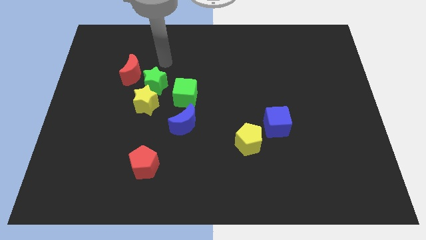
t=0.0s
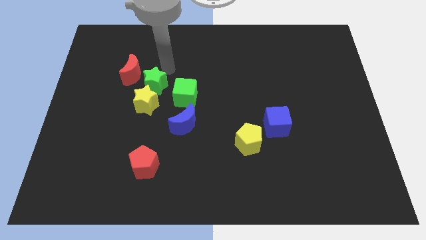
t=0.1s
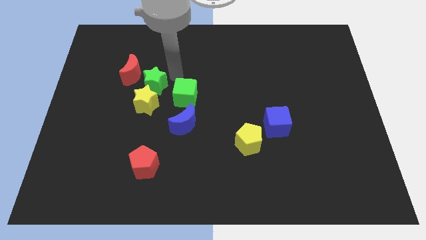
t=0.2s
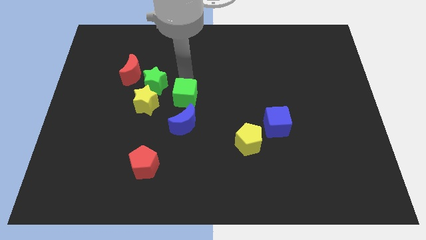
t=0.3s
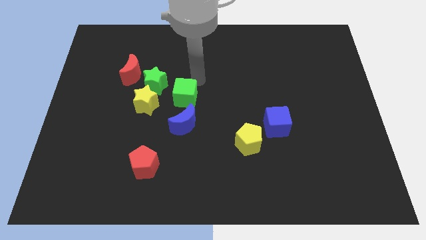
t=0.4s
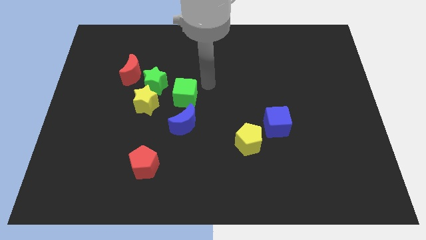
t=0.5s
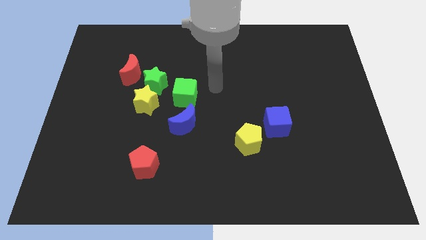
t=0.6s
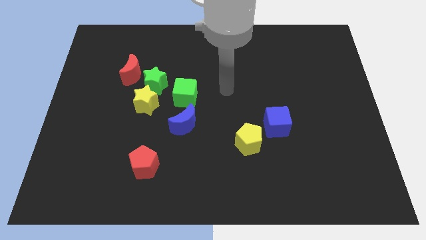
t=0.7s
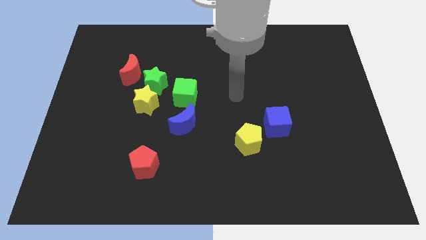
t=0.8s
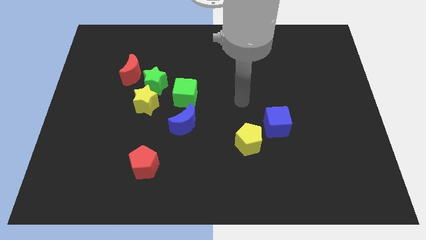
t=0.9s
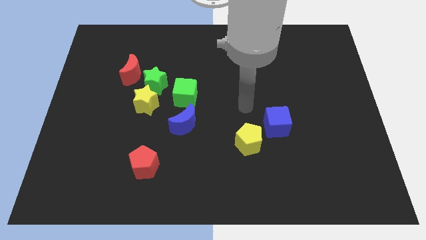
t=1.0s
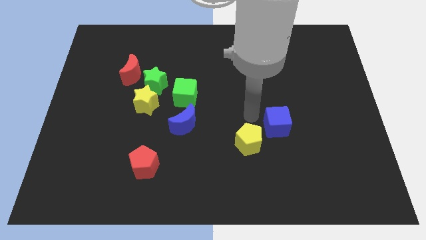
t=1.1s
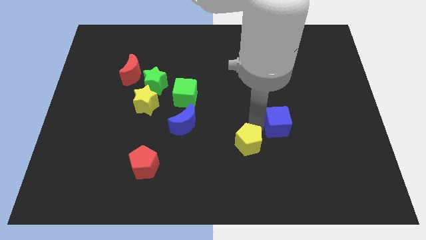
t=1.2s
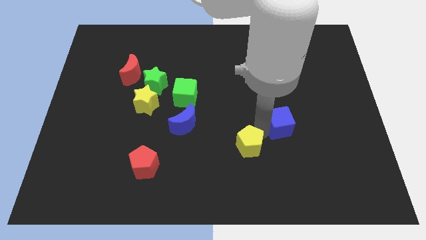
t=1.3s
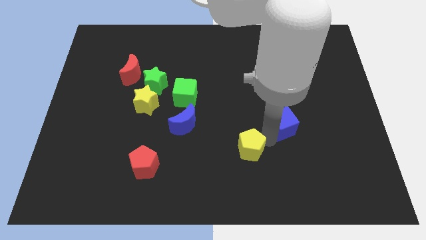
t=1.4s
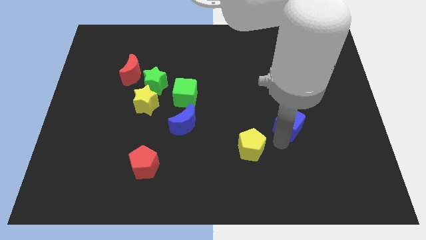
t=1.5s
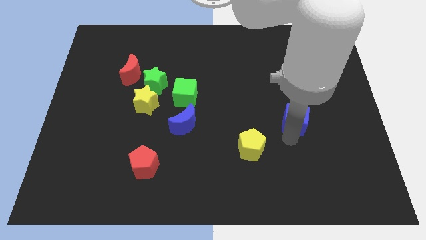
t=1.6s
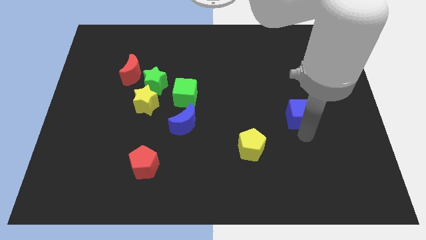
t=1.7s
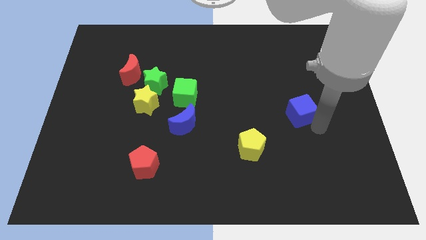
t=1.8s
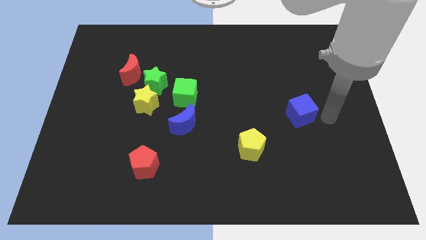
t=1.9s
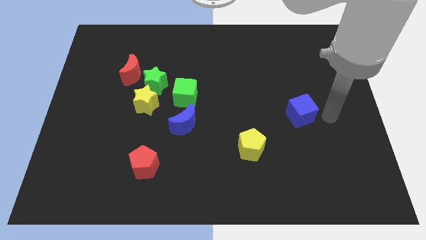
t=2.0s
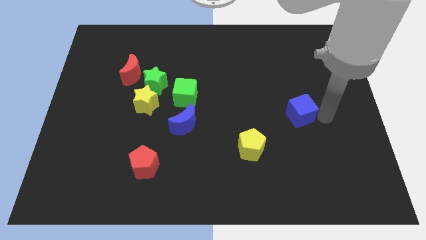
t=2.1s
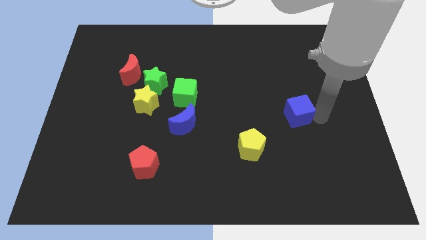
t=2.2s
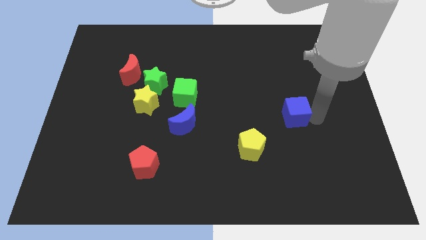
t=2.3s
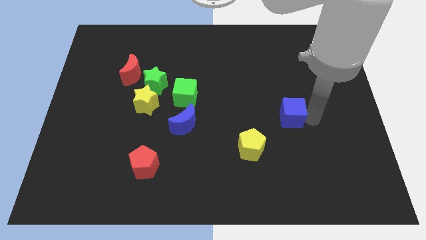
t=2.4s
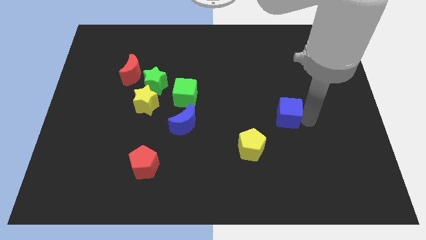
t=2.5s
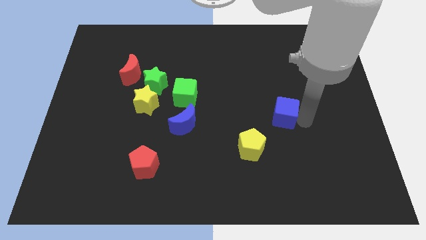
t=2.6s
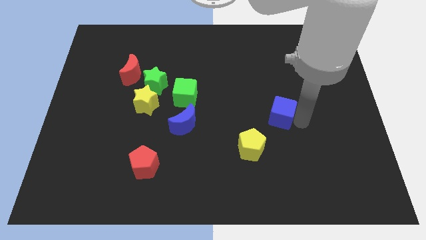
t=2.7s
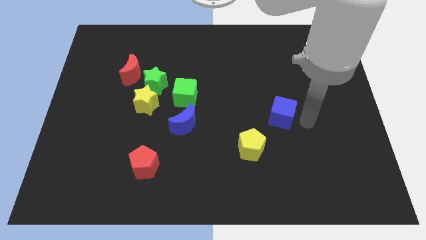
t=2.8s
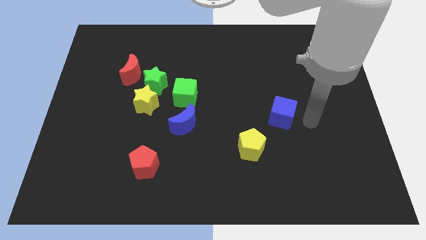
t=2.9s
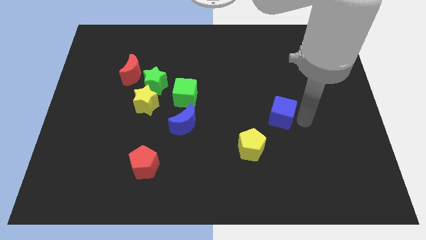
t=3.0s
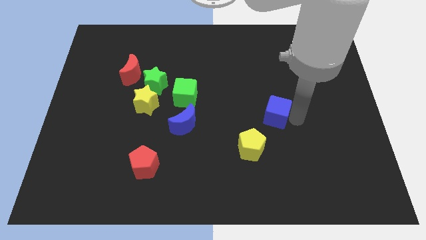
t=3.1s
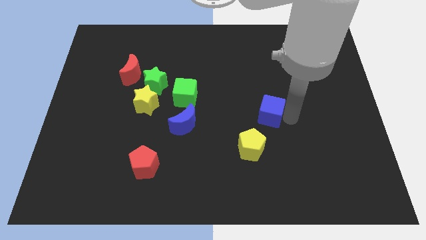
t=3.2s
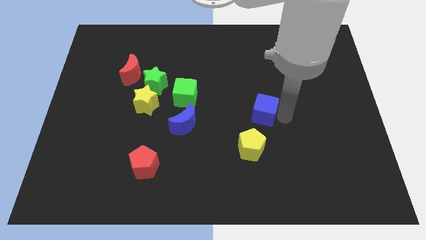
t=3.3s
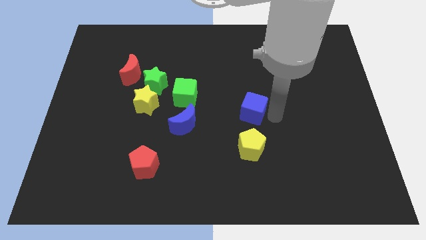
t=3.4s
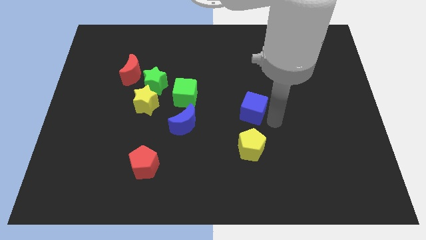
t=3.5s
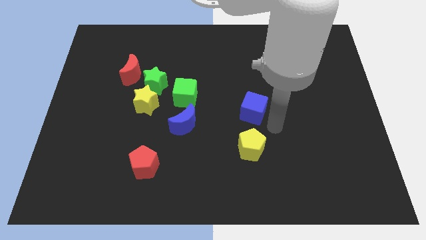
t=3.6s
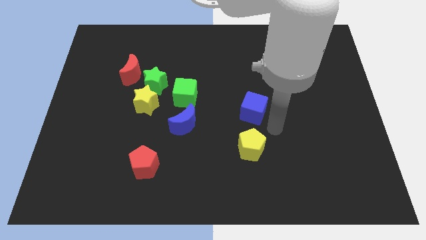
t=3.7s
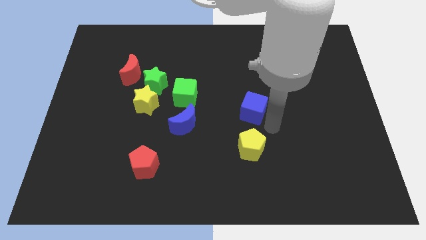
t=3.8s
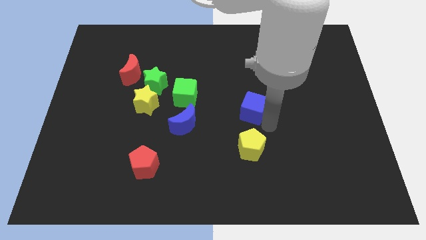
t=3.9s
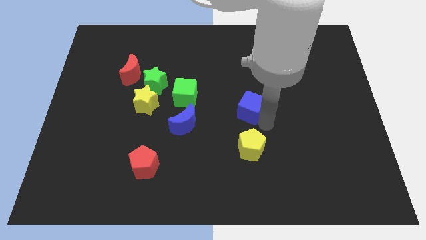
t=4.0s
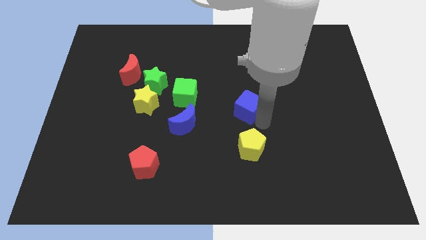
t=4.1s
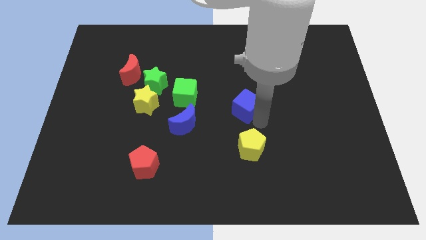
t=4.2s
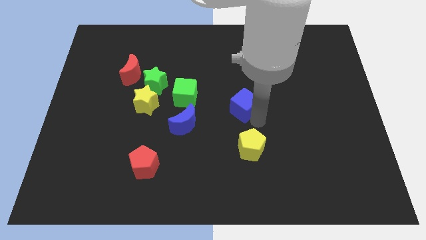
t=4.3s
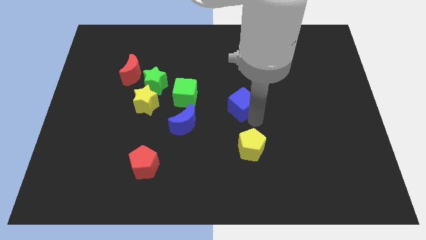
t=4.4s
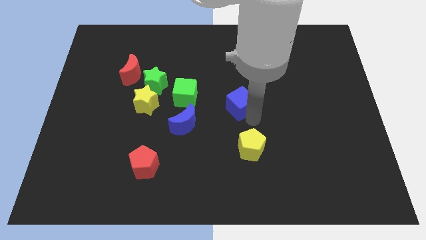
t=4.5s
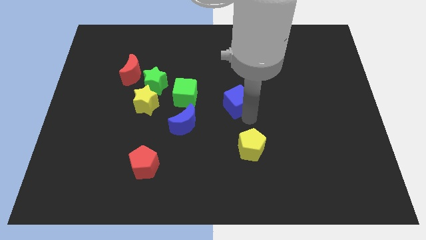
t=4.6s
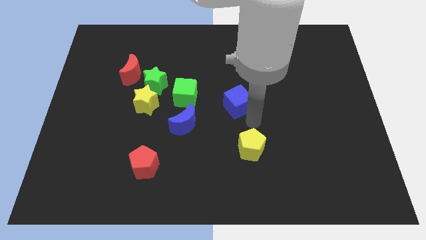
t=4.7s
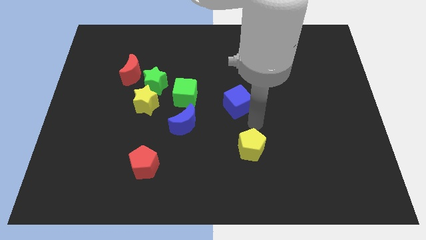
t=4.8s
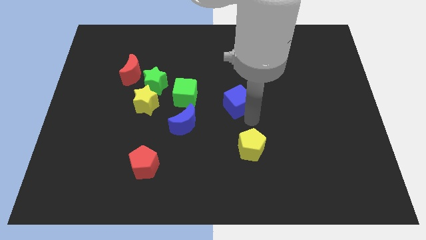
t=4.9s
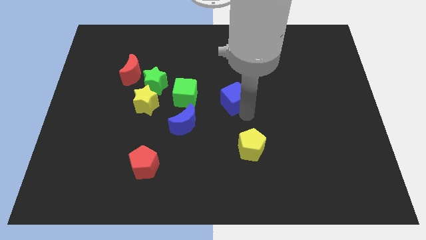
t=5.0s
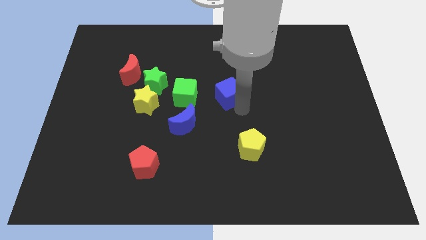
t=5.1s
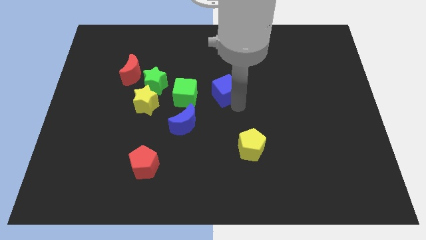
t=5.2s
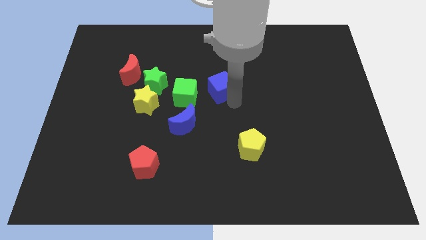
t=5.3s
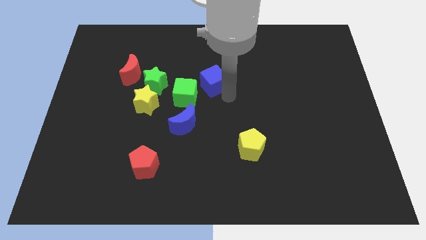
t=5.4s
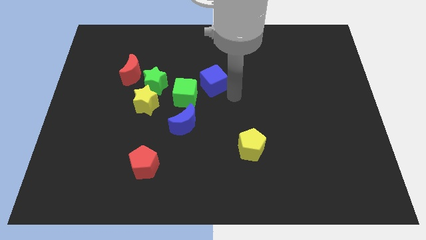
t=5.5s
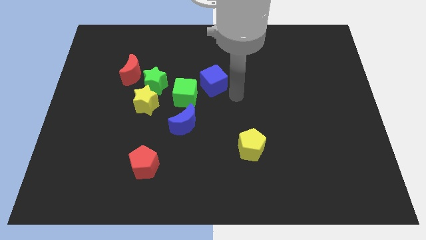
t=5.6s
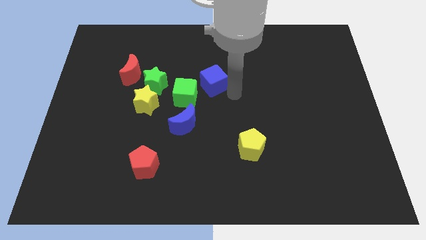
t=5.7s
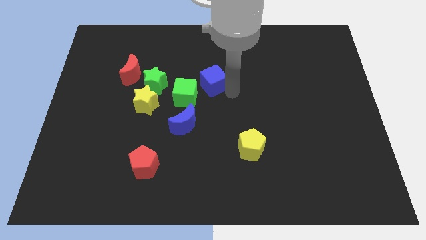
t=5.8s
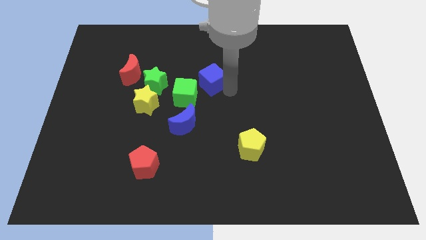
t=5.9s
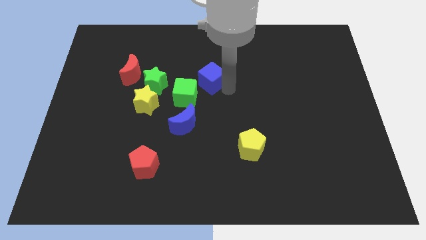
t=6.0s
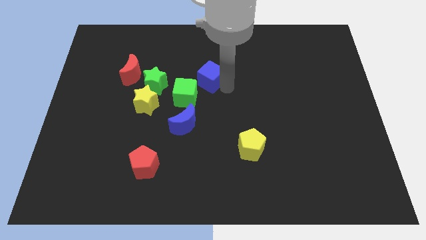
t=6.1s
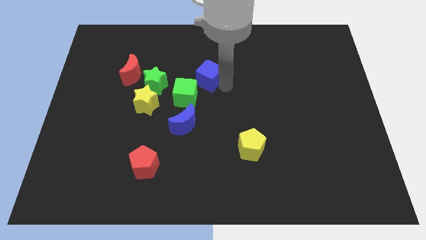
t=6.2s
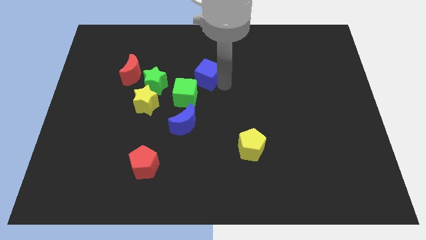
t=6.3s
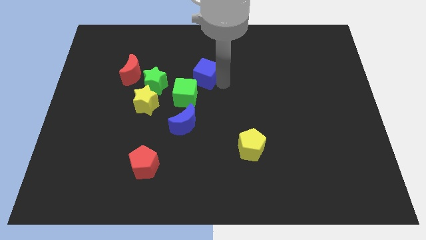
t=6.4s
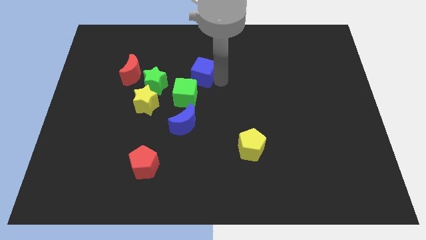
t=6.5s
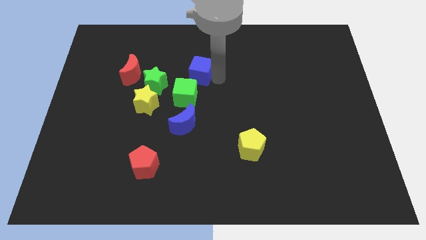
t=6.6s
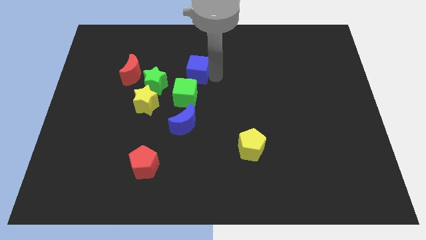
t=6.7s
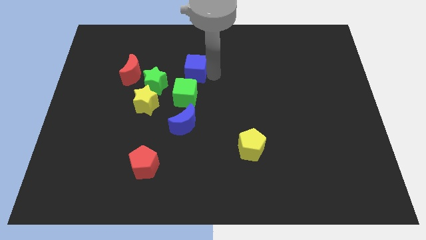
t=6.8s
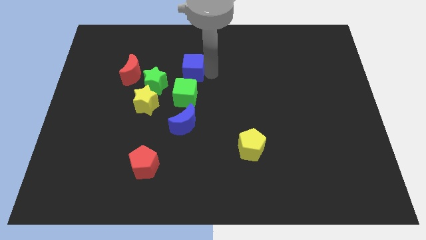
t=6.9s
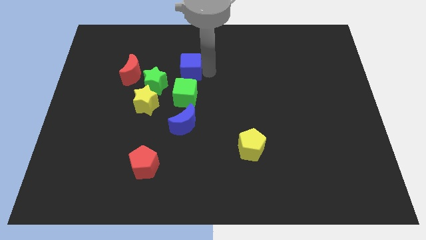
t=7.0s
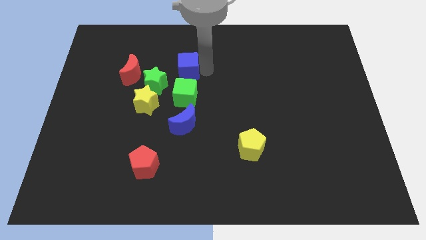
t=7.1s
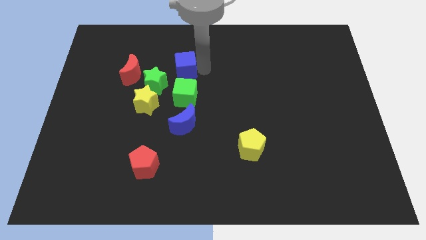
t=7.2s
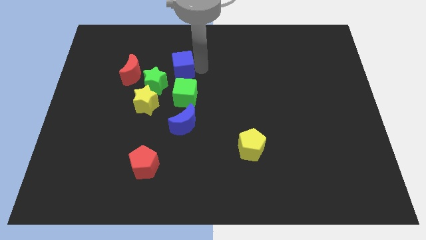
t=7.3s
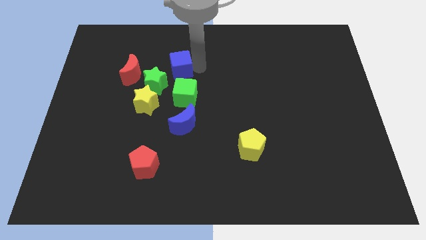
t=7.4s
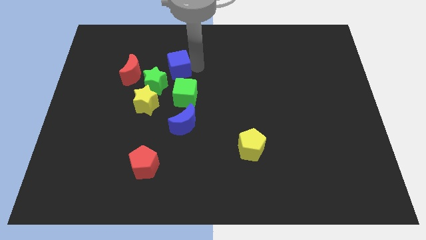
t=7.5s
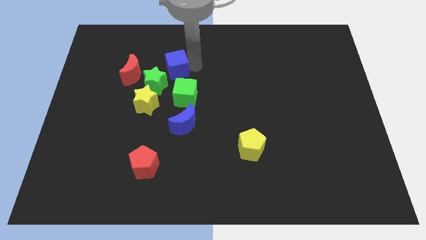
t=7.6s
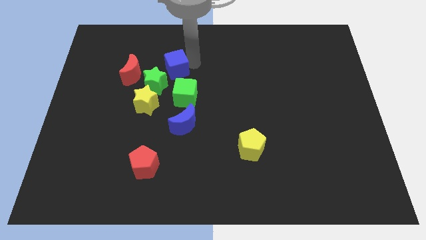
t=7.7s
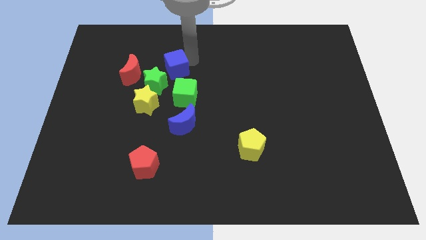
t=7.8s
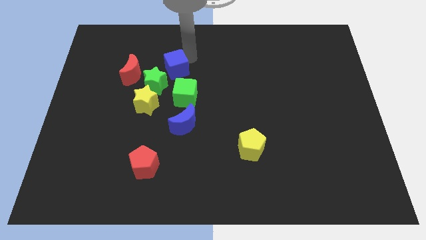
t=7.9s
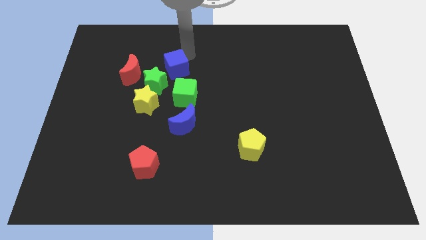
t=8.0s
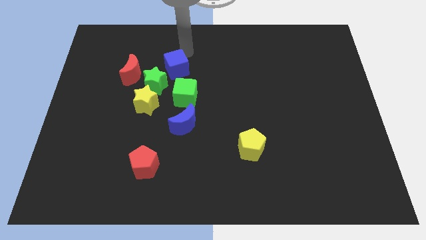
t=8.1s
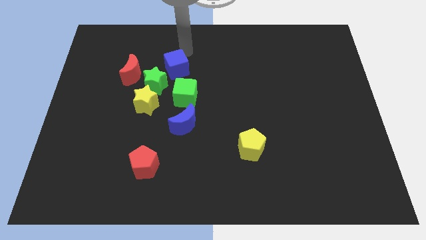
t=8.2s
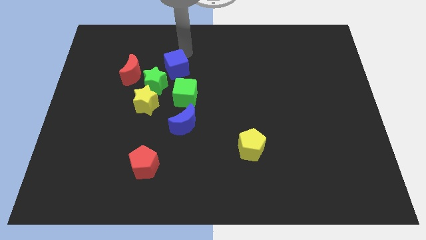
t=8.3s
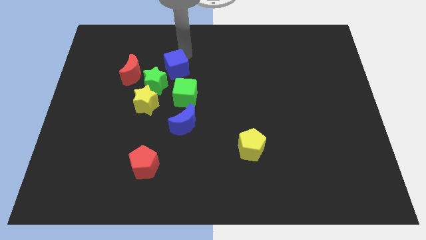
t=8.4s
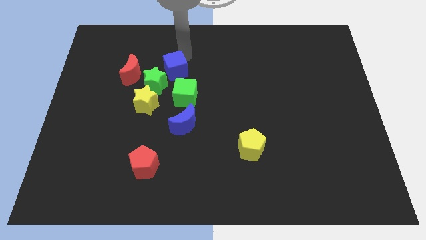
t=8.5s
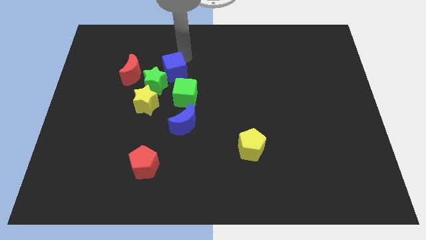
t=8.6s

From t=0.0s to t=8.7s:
push the blue cube to the green star
